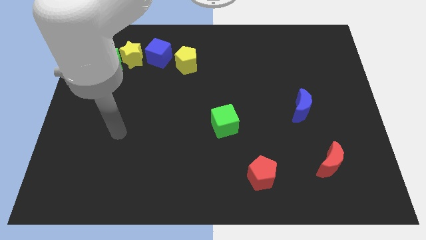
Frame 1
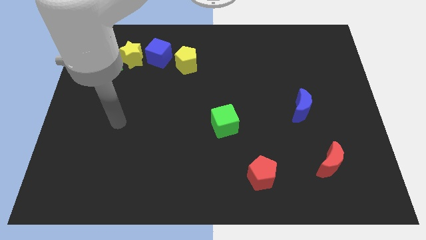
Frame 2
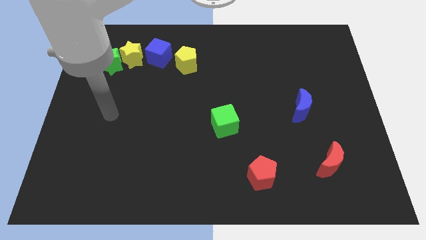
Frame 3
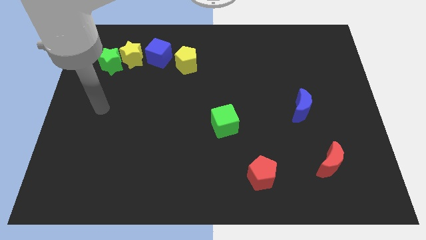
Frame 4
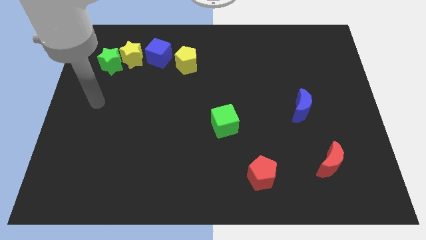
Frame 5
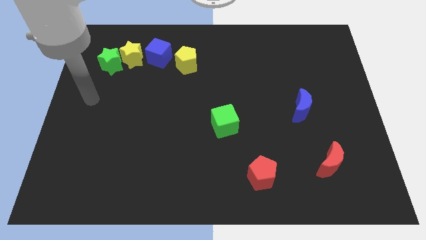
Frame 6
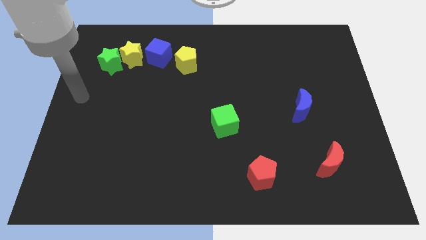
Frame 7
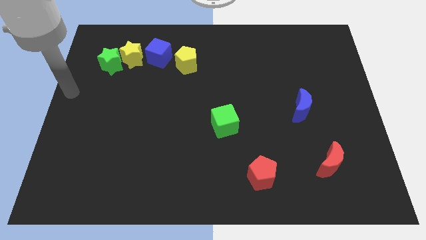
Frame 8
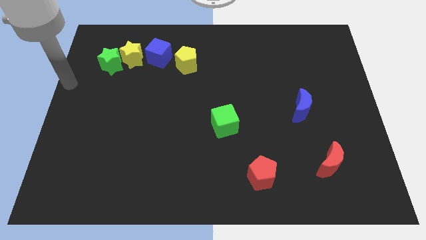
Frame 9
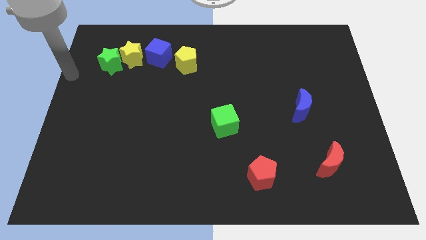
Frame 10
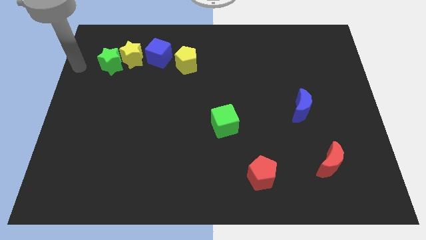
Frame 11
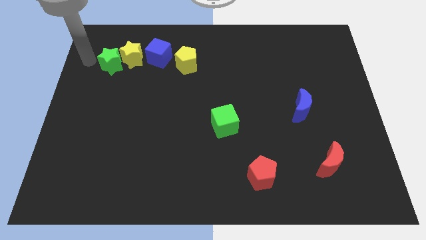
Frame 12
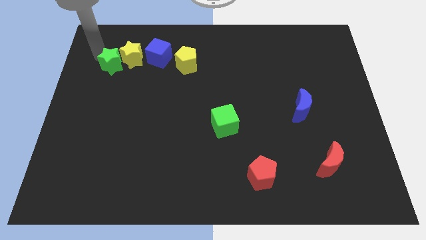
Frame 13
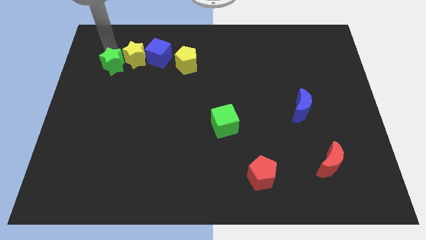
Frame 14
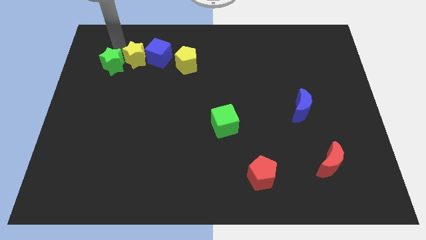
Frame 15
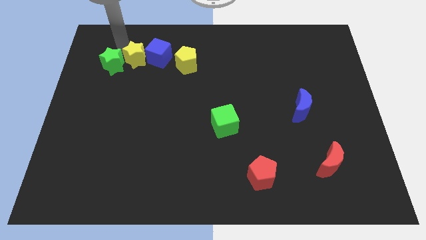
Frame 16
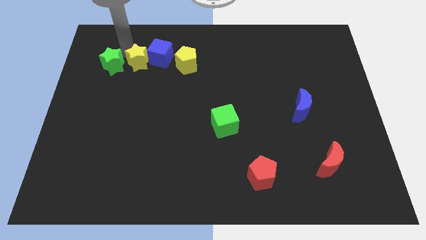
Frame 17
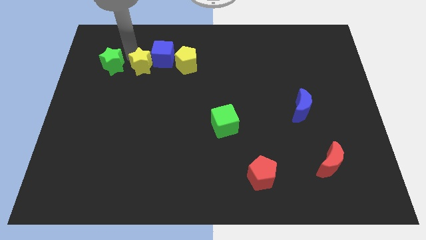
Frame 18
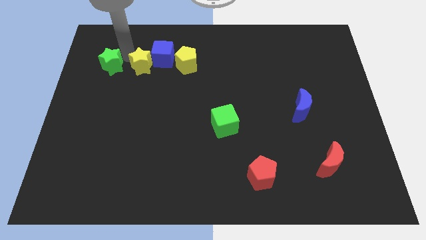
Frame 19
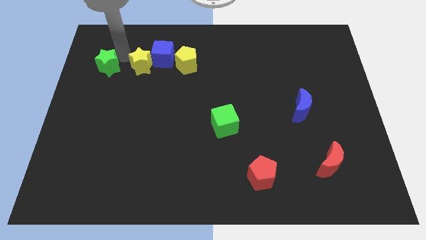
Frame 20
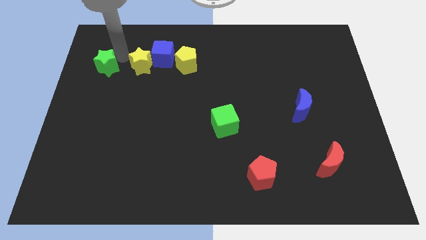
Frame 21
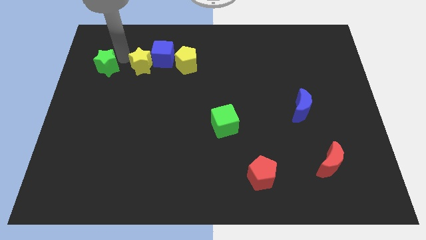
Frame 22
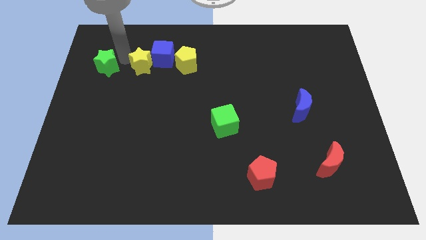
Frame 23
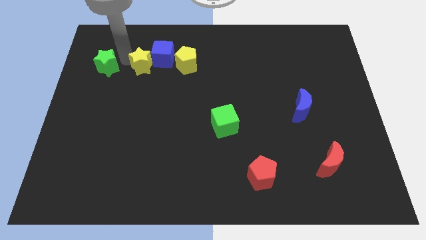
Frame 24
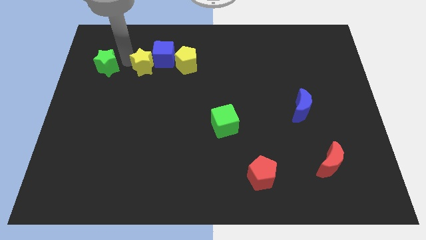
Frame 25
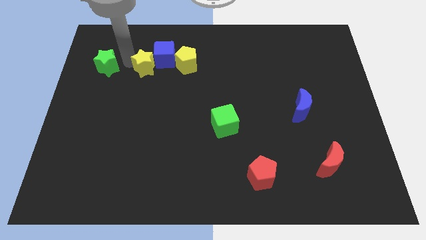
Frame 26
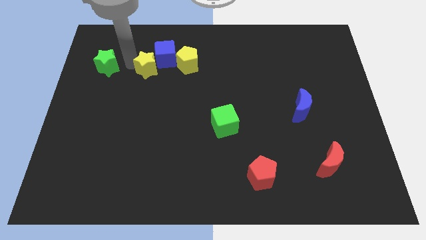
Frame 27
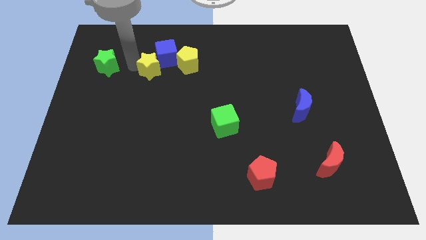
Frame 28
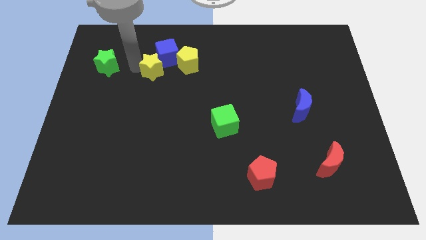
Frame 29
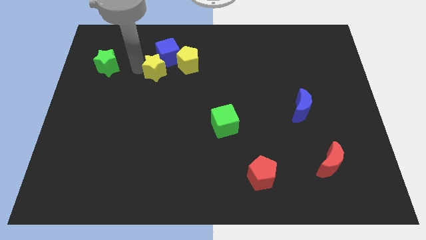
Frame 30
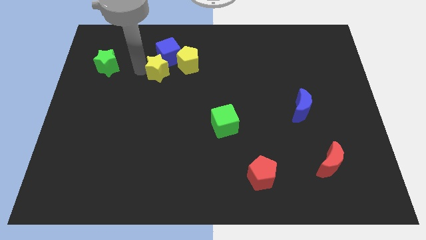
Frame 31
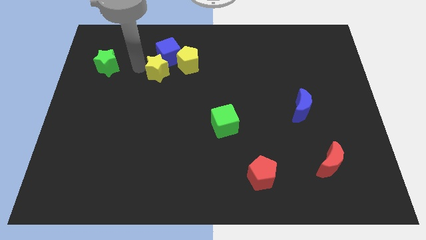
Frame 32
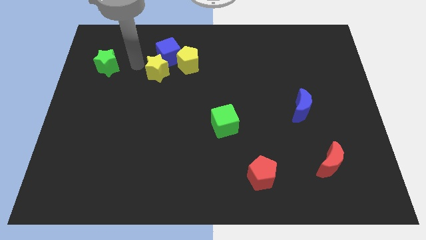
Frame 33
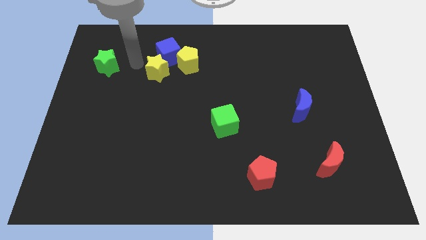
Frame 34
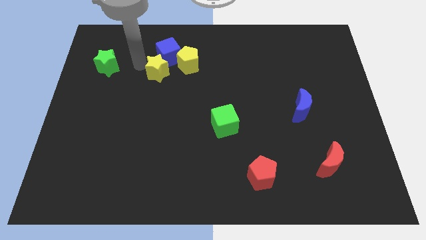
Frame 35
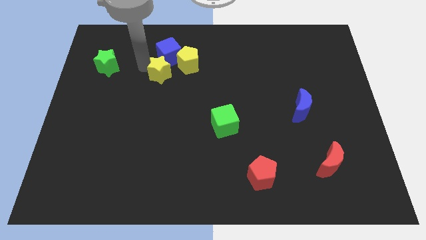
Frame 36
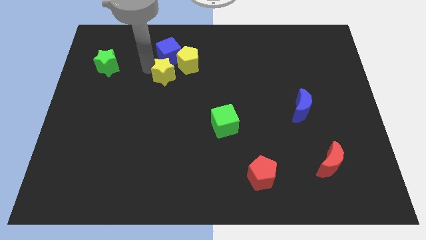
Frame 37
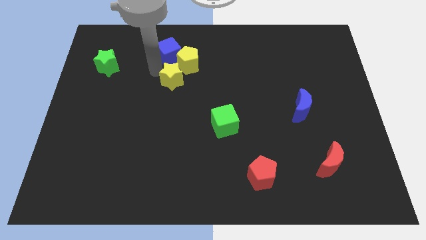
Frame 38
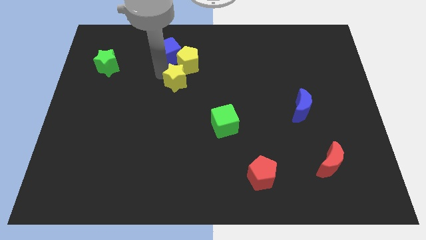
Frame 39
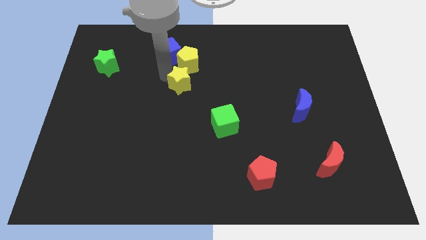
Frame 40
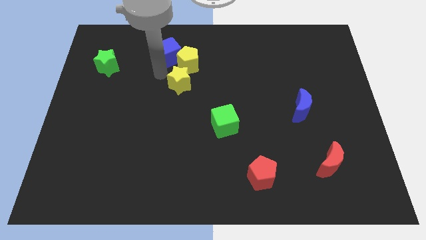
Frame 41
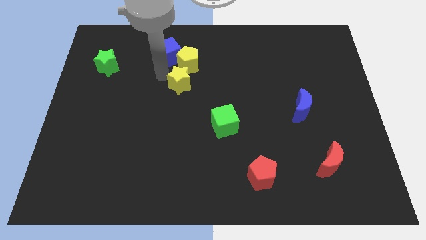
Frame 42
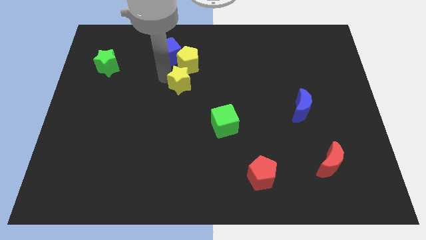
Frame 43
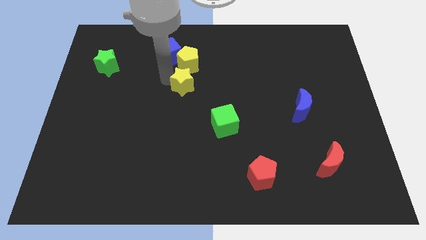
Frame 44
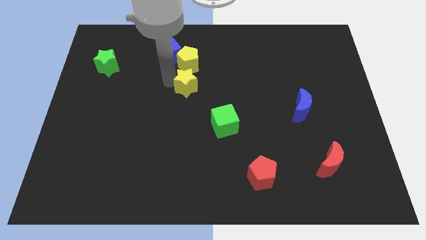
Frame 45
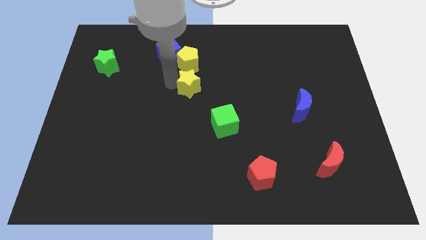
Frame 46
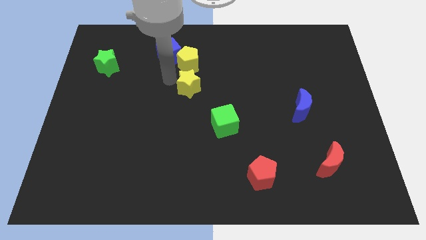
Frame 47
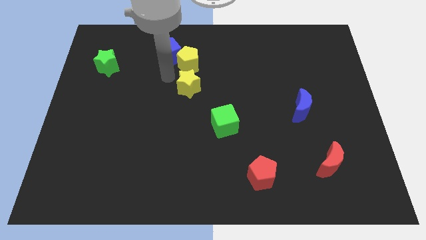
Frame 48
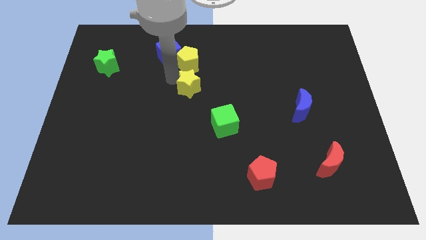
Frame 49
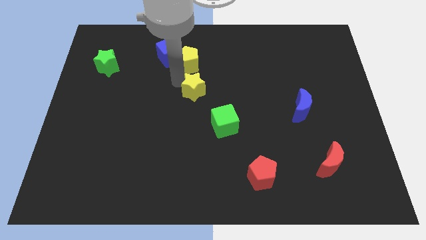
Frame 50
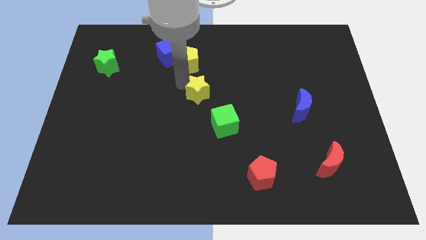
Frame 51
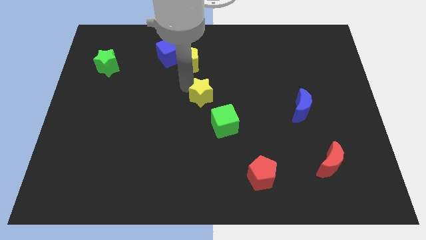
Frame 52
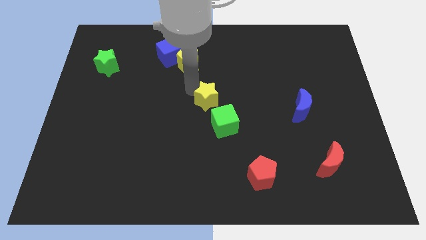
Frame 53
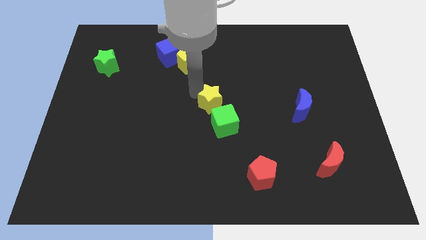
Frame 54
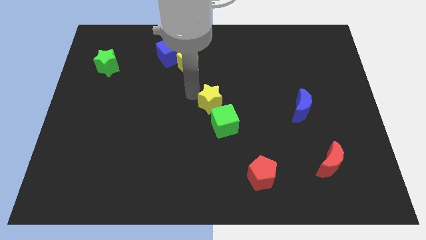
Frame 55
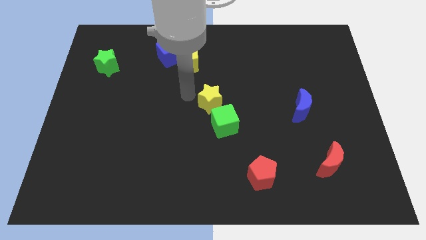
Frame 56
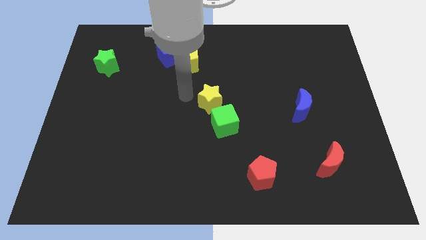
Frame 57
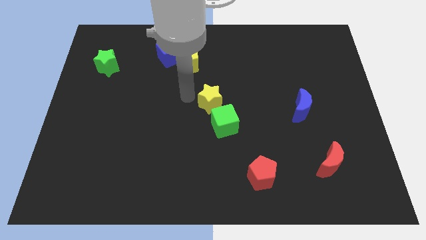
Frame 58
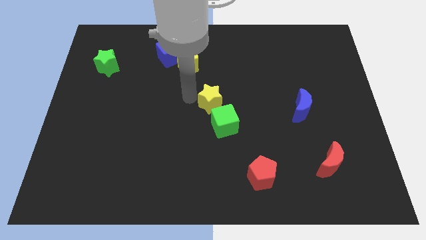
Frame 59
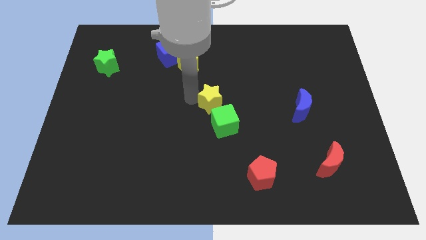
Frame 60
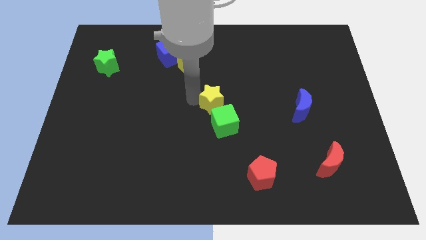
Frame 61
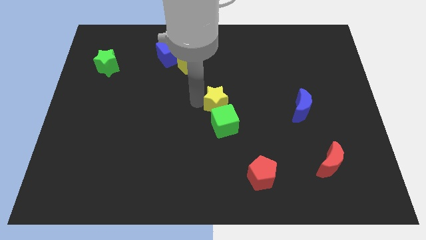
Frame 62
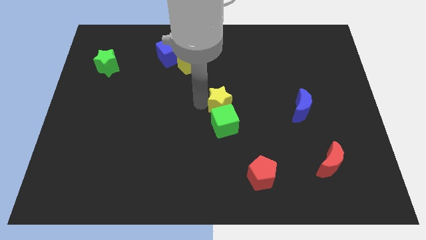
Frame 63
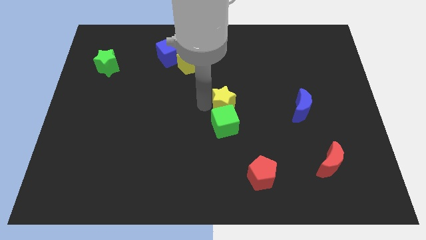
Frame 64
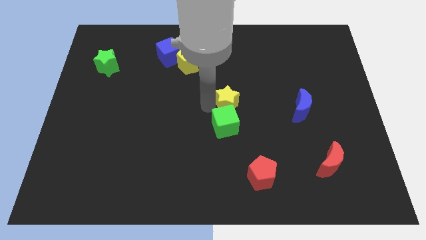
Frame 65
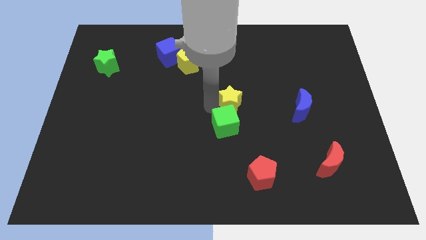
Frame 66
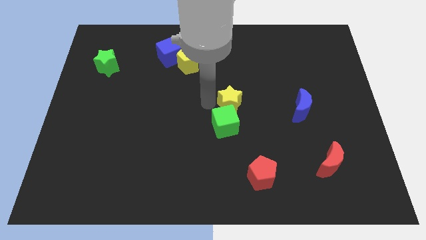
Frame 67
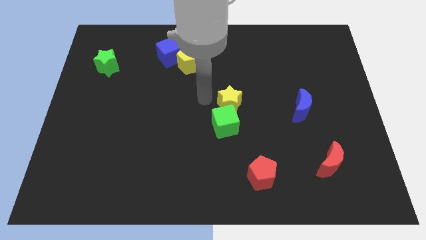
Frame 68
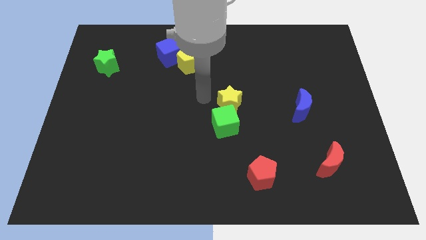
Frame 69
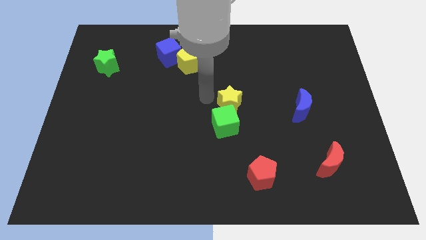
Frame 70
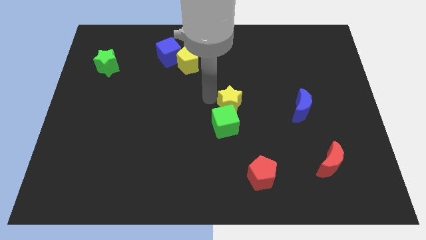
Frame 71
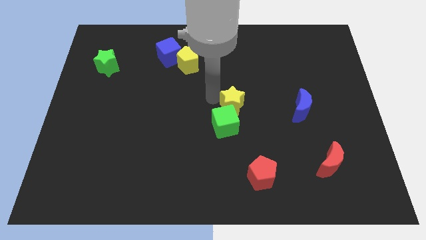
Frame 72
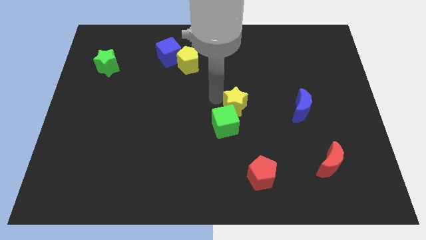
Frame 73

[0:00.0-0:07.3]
put the yellow star to the left of the blue moon
